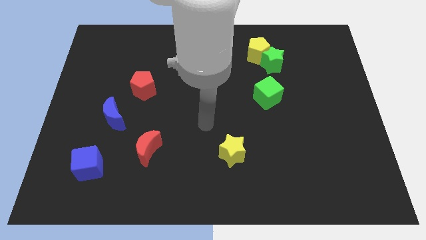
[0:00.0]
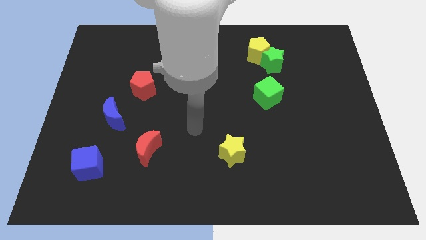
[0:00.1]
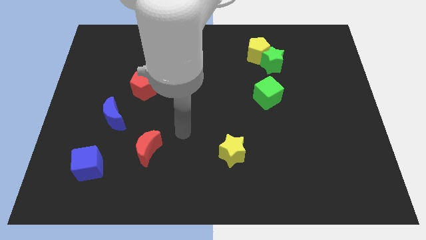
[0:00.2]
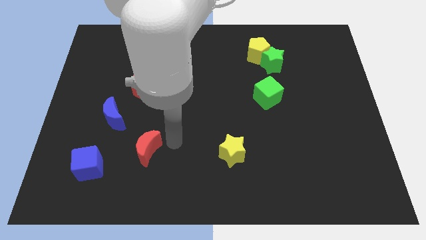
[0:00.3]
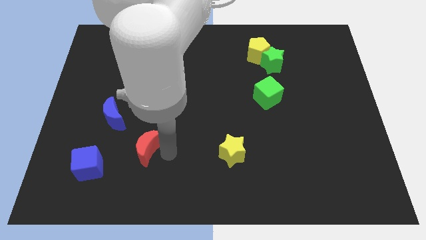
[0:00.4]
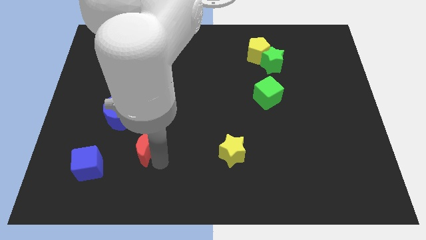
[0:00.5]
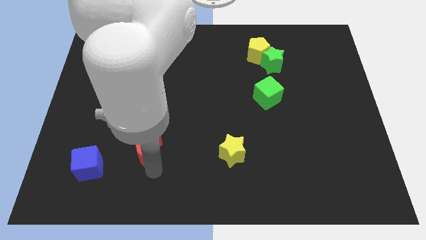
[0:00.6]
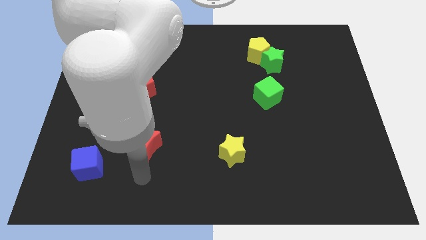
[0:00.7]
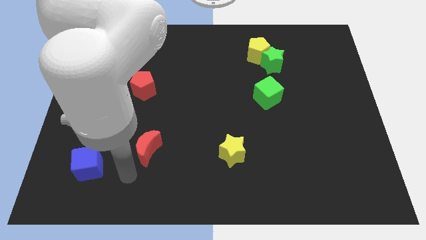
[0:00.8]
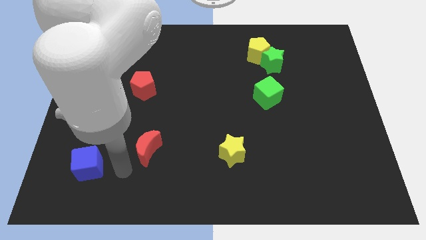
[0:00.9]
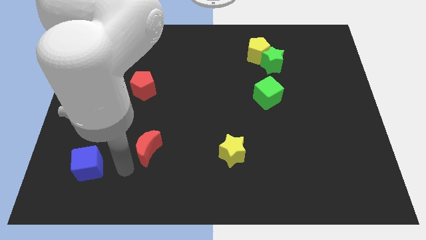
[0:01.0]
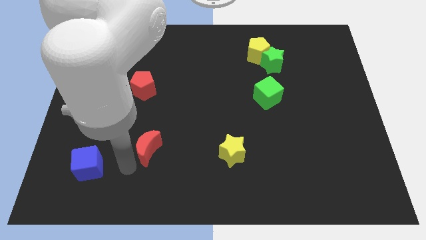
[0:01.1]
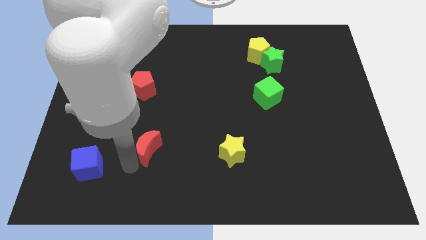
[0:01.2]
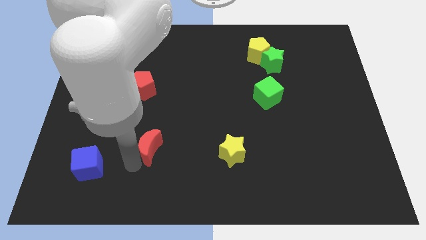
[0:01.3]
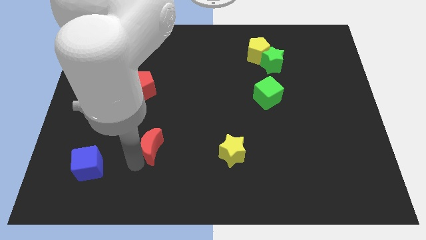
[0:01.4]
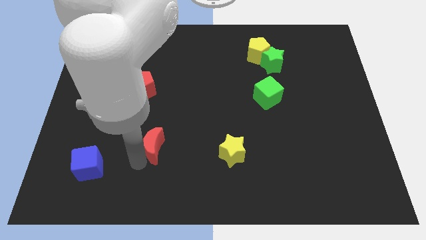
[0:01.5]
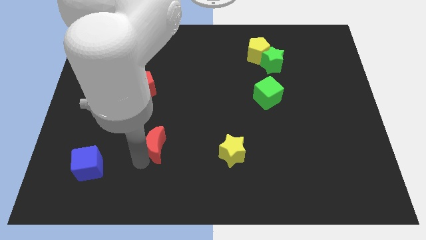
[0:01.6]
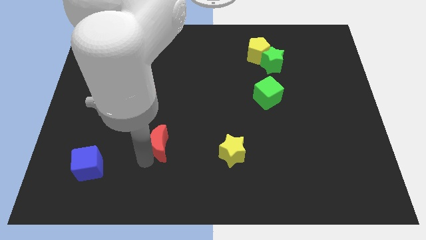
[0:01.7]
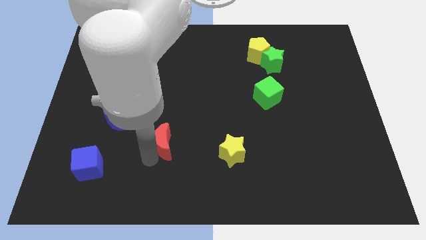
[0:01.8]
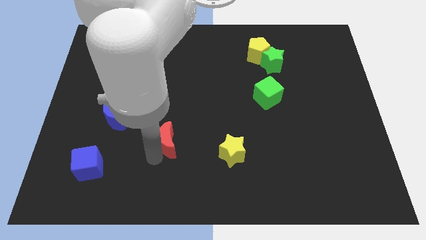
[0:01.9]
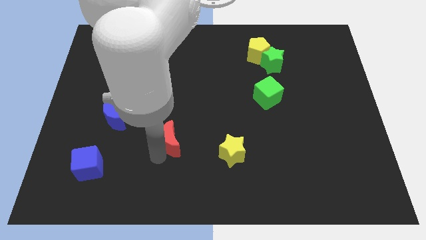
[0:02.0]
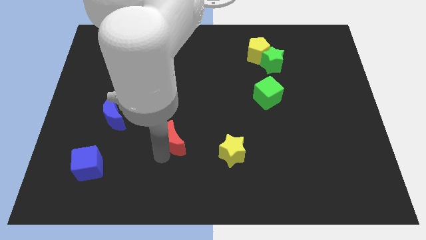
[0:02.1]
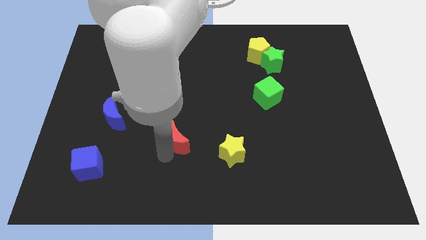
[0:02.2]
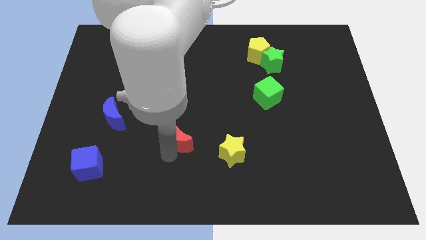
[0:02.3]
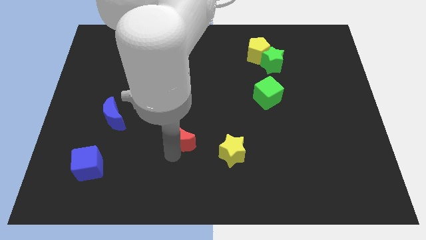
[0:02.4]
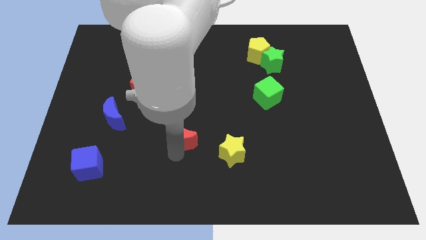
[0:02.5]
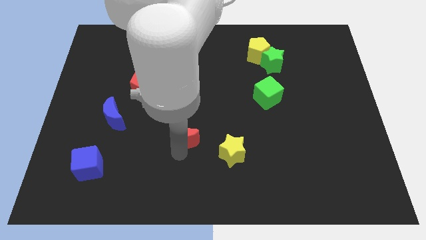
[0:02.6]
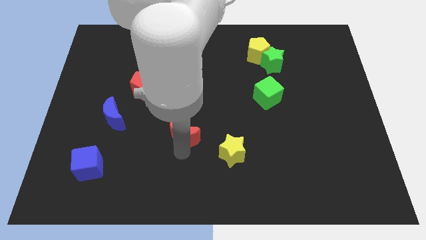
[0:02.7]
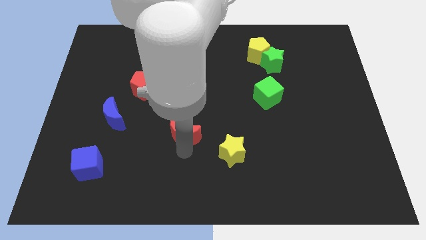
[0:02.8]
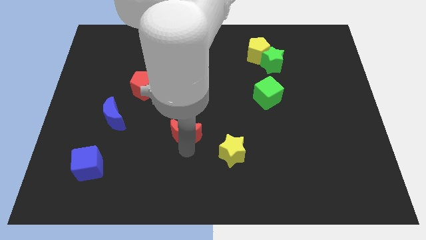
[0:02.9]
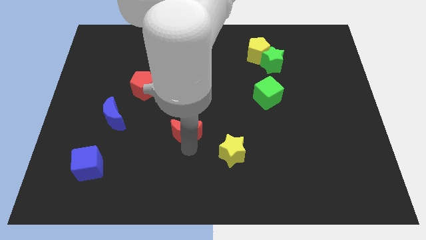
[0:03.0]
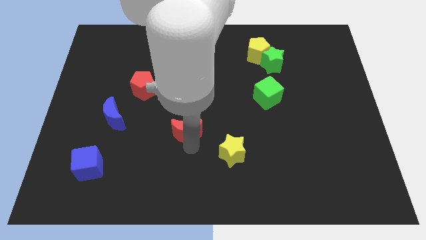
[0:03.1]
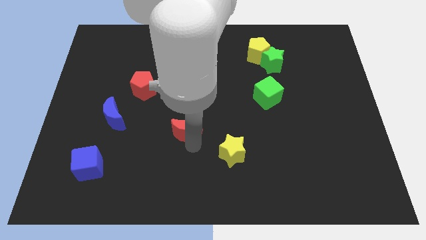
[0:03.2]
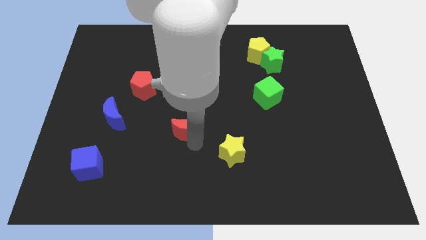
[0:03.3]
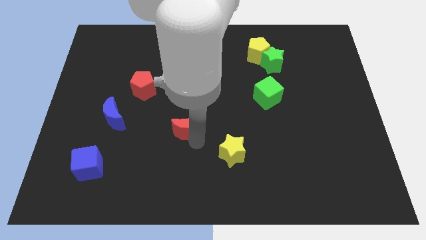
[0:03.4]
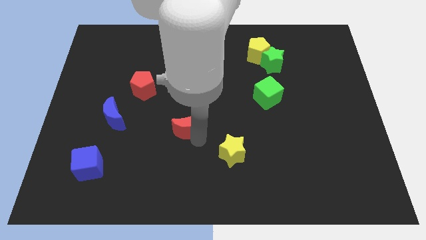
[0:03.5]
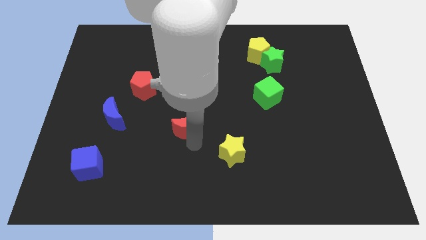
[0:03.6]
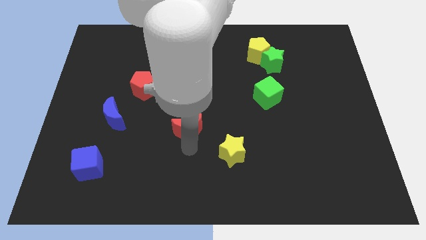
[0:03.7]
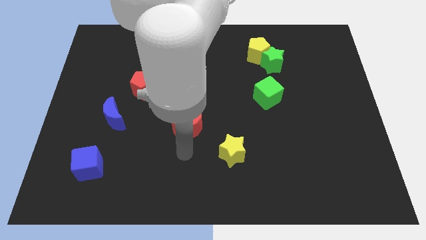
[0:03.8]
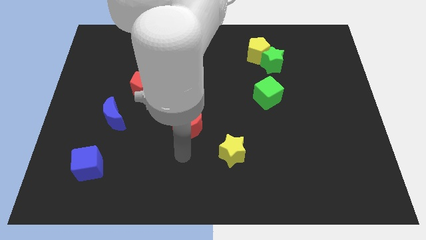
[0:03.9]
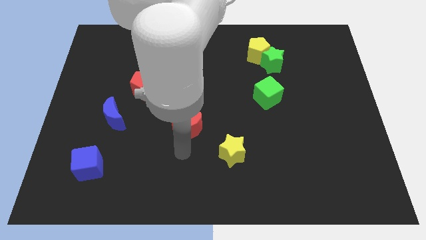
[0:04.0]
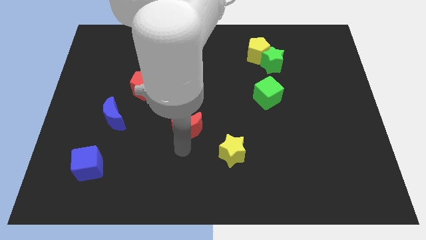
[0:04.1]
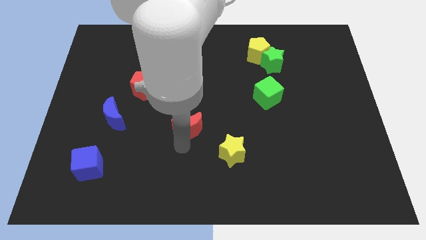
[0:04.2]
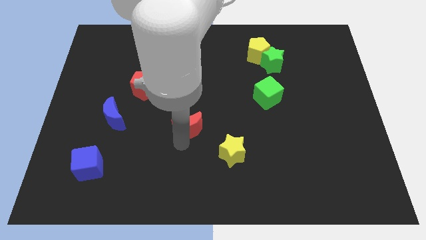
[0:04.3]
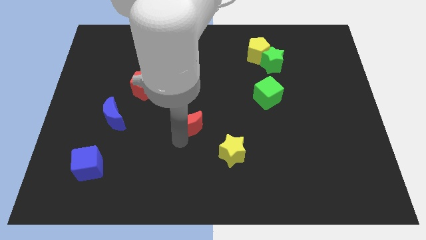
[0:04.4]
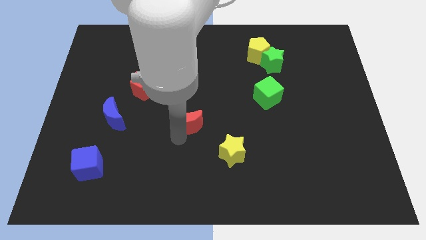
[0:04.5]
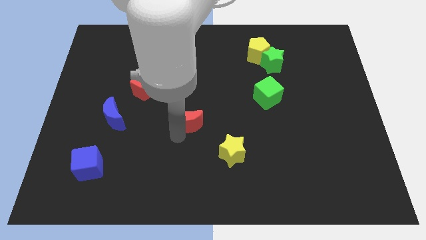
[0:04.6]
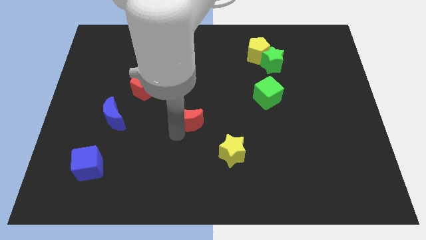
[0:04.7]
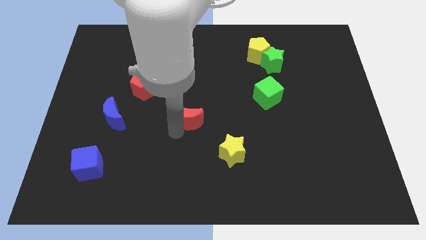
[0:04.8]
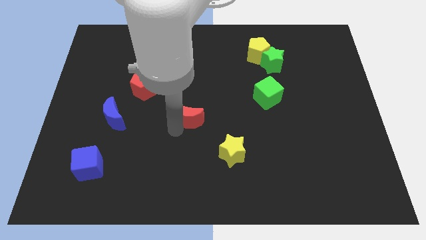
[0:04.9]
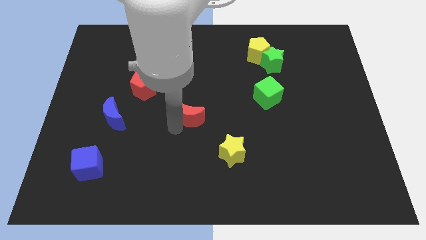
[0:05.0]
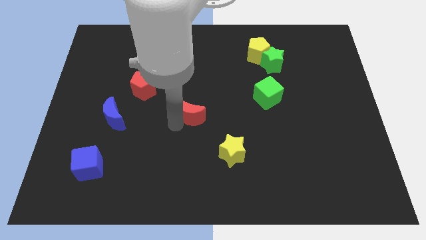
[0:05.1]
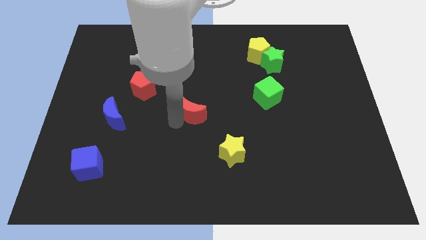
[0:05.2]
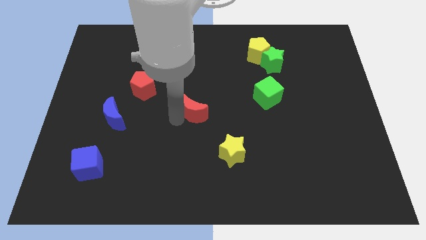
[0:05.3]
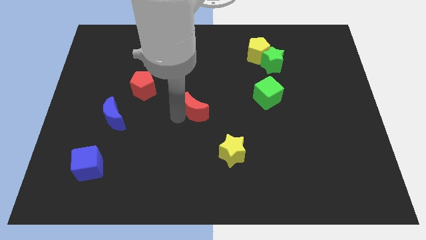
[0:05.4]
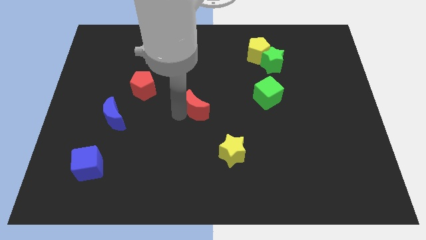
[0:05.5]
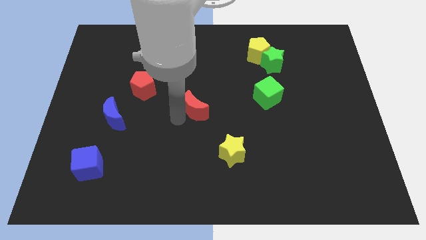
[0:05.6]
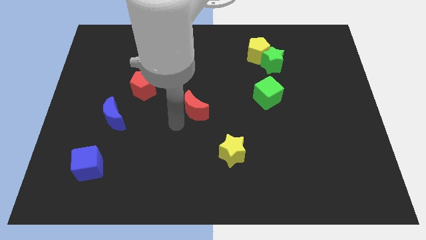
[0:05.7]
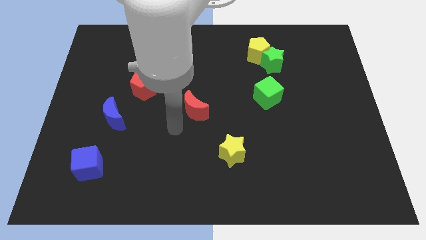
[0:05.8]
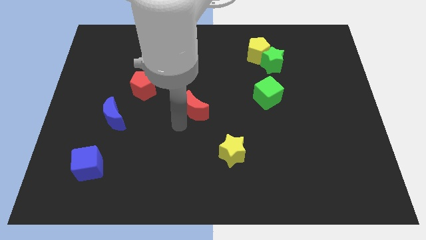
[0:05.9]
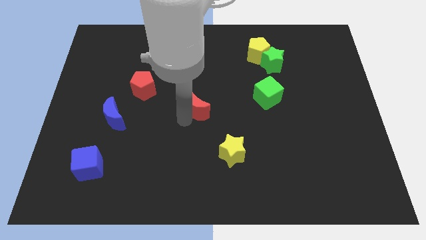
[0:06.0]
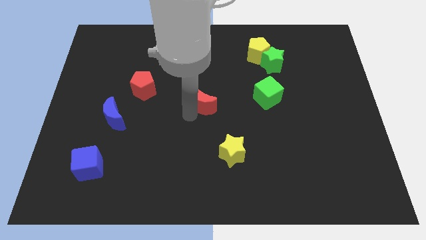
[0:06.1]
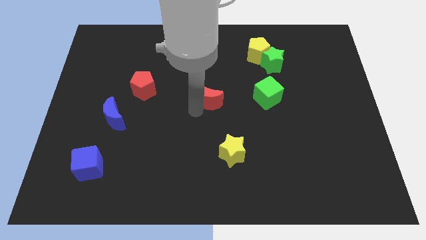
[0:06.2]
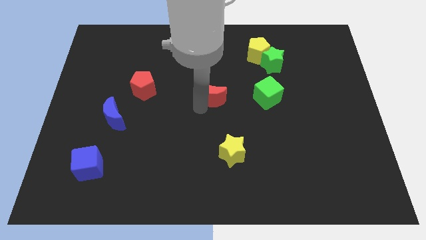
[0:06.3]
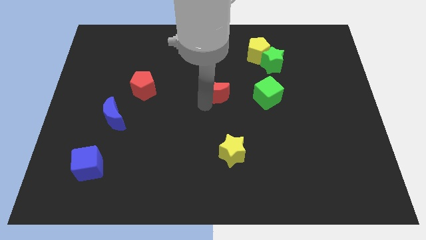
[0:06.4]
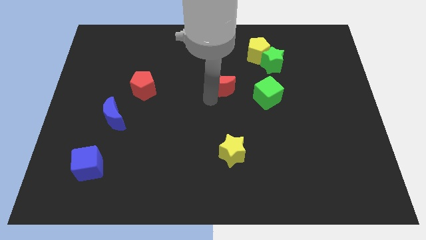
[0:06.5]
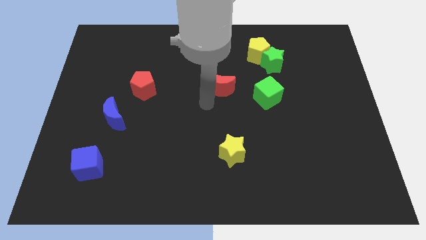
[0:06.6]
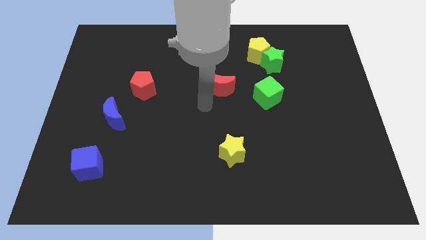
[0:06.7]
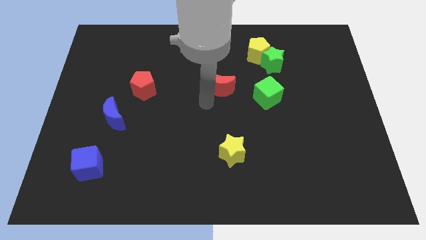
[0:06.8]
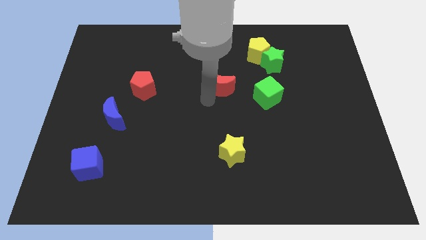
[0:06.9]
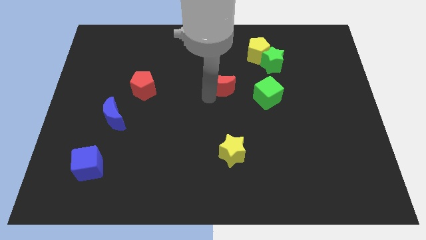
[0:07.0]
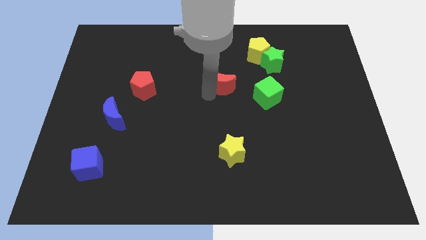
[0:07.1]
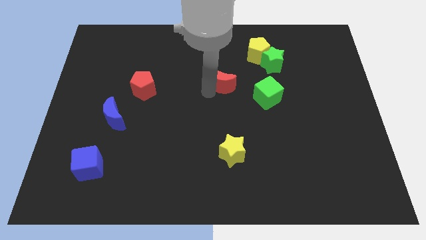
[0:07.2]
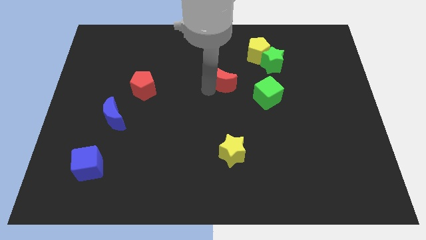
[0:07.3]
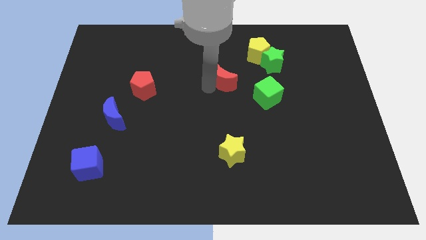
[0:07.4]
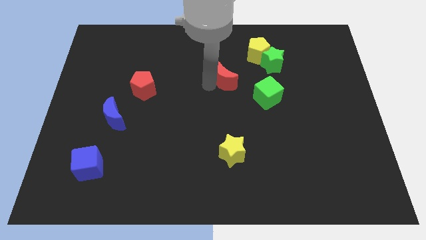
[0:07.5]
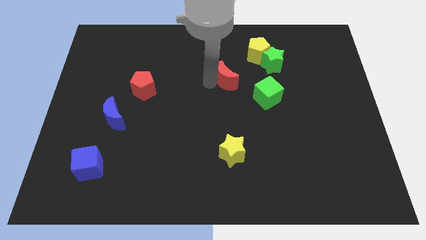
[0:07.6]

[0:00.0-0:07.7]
slide the red moon to the bottom left side of the yellow pentagon

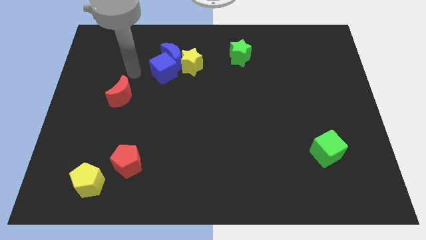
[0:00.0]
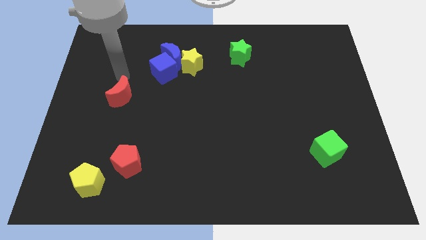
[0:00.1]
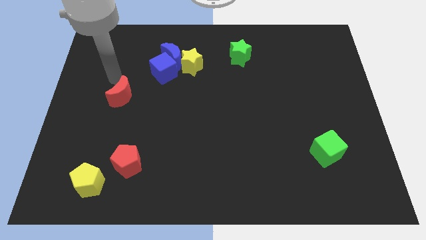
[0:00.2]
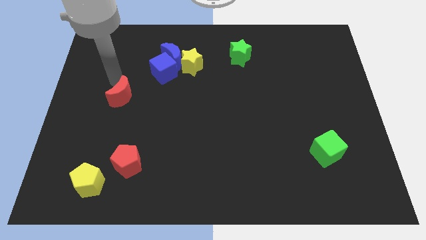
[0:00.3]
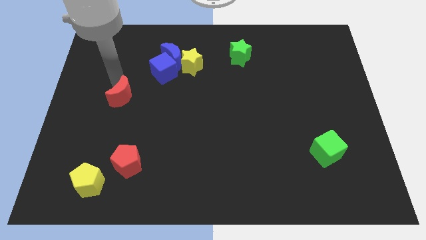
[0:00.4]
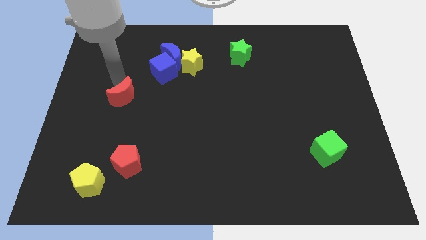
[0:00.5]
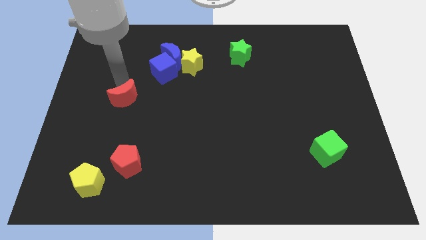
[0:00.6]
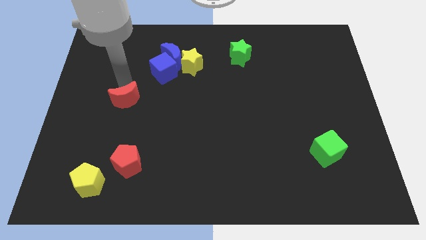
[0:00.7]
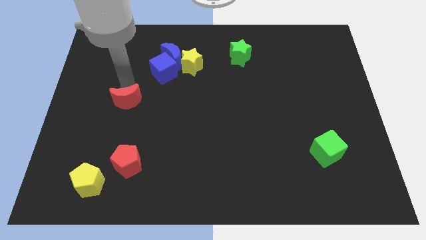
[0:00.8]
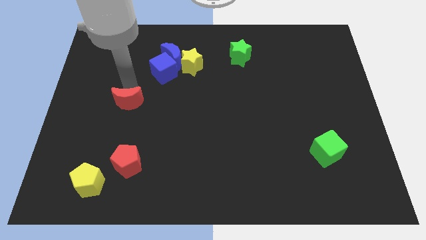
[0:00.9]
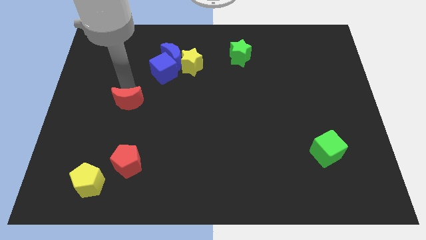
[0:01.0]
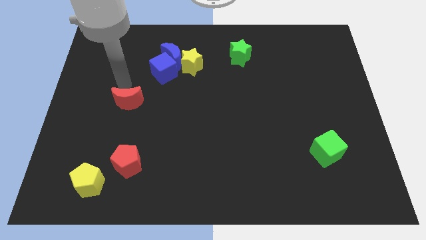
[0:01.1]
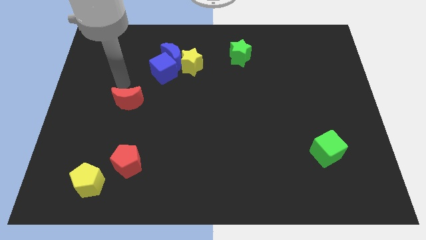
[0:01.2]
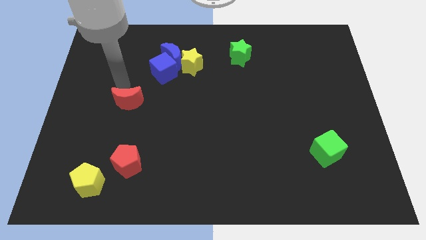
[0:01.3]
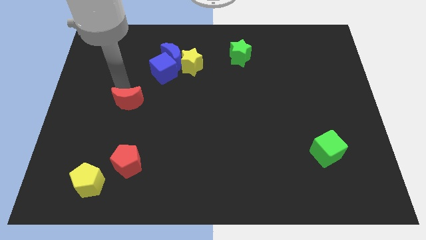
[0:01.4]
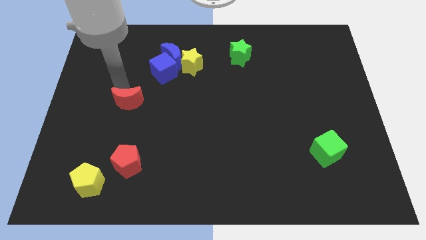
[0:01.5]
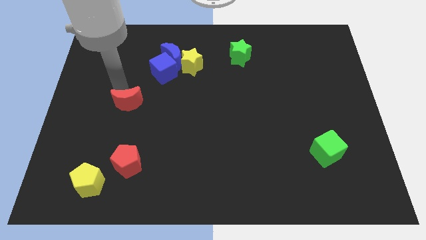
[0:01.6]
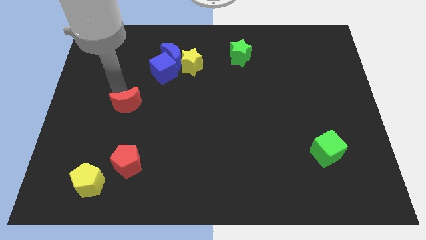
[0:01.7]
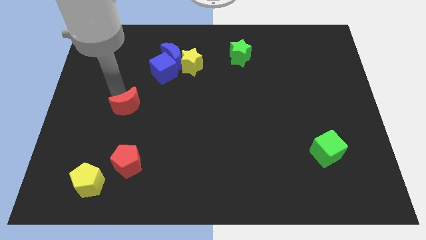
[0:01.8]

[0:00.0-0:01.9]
push the red moon to the top of the red pentagon
